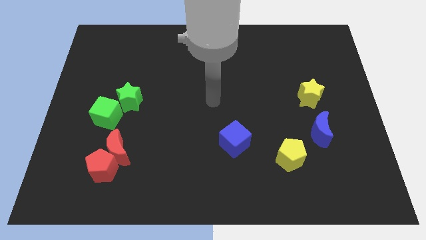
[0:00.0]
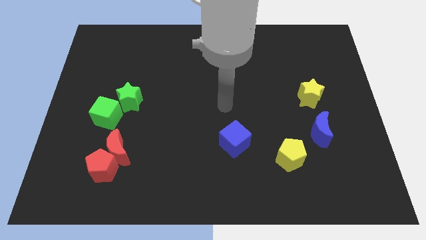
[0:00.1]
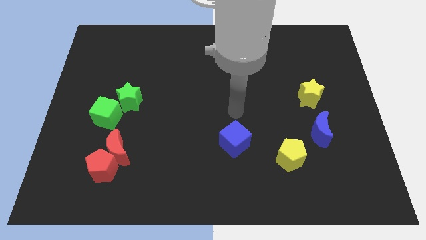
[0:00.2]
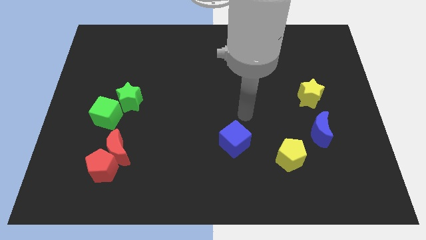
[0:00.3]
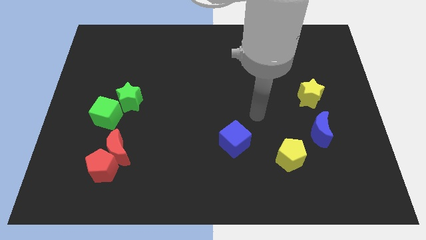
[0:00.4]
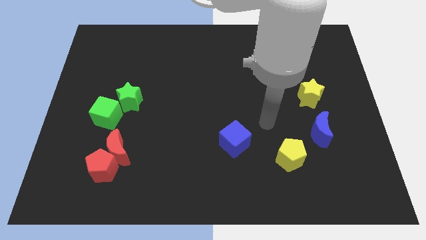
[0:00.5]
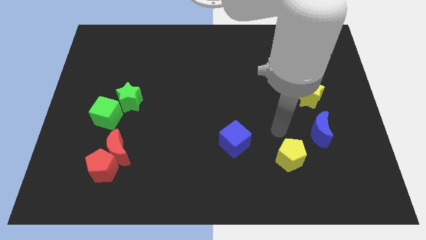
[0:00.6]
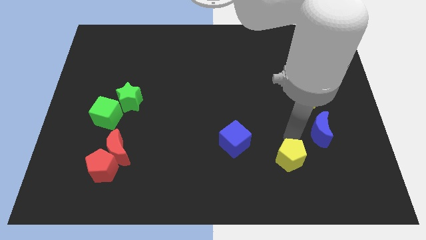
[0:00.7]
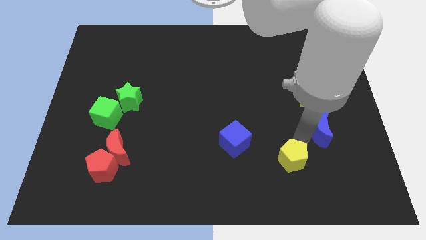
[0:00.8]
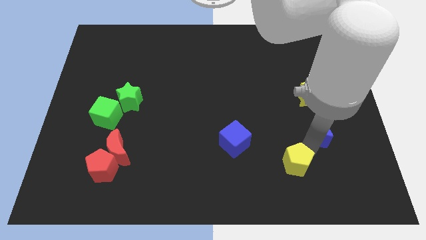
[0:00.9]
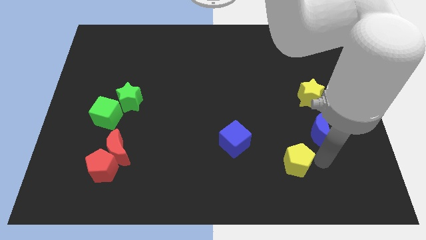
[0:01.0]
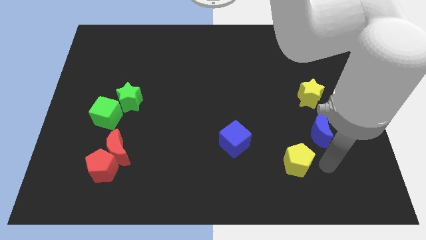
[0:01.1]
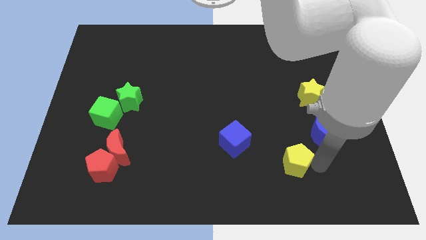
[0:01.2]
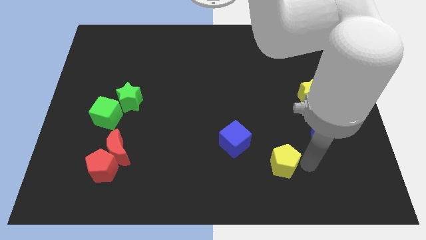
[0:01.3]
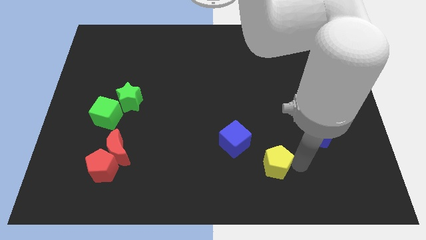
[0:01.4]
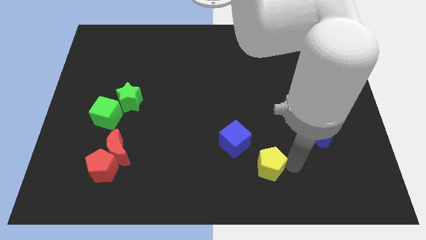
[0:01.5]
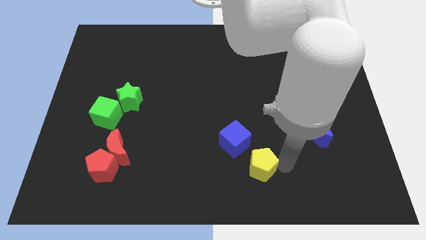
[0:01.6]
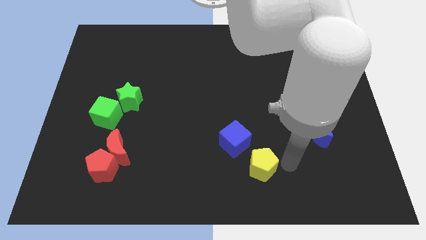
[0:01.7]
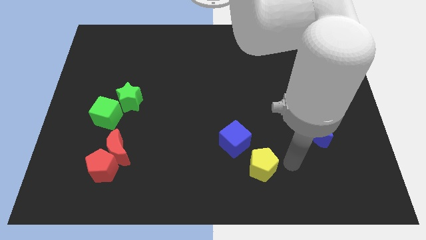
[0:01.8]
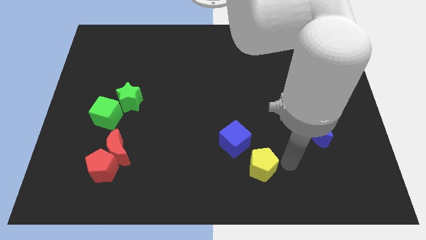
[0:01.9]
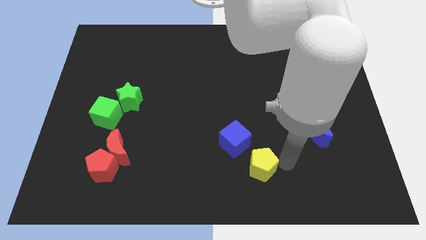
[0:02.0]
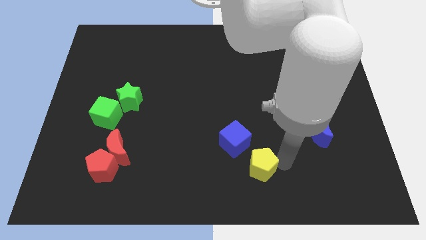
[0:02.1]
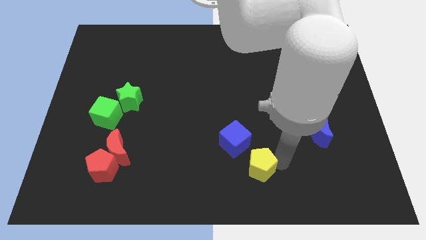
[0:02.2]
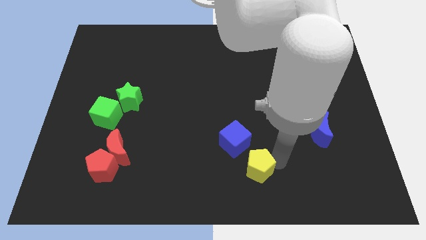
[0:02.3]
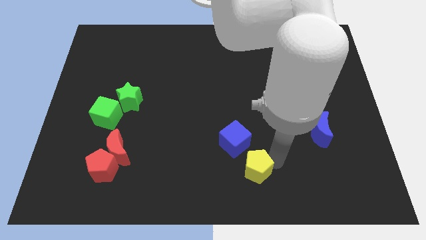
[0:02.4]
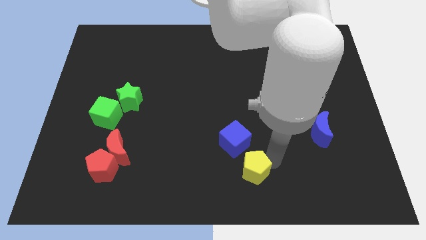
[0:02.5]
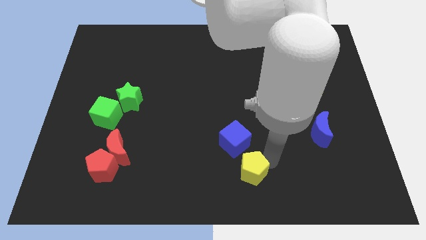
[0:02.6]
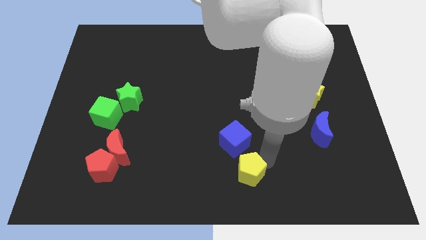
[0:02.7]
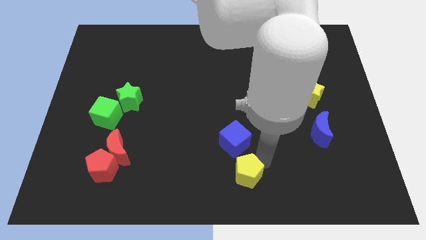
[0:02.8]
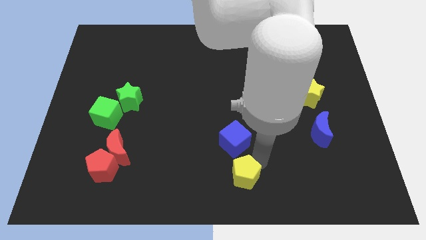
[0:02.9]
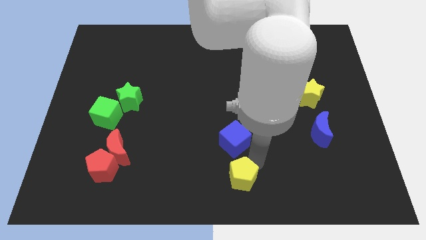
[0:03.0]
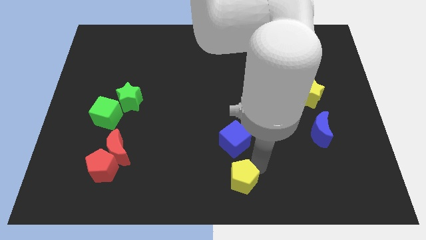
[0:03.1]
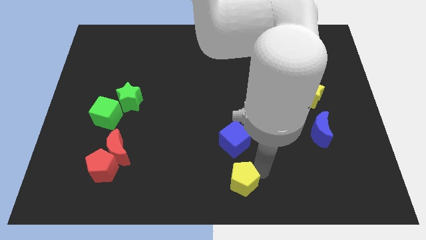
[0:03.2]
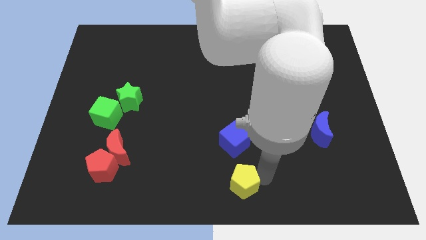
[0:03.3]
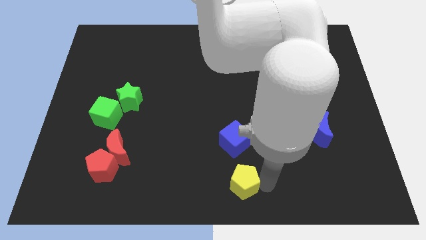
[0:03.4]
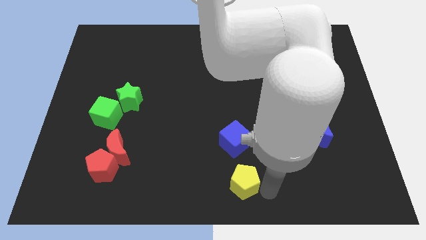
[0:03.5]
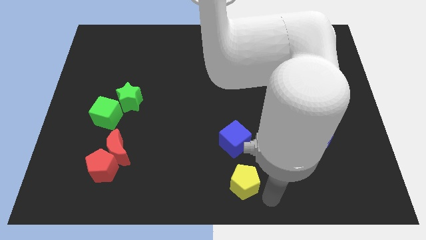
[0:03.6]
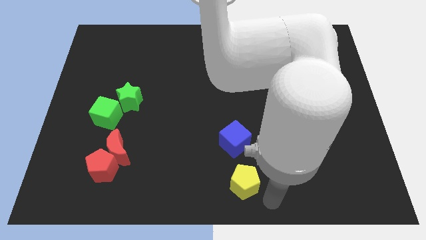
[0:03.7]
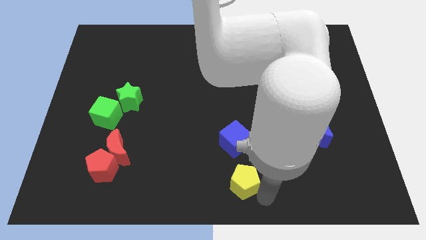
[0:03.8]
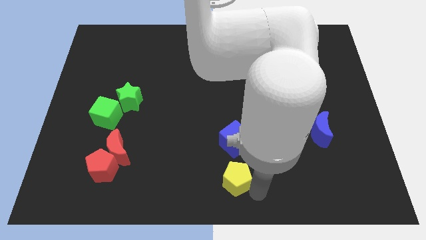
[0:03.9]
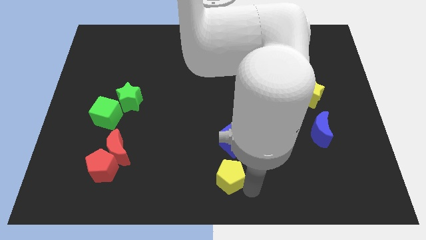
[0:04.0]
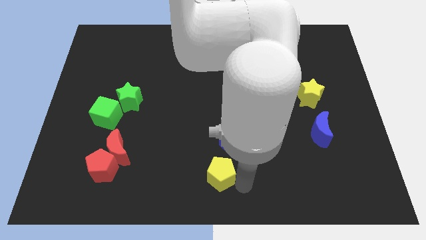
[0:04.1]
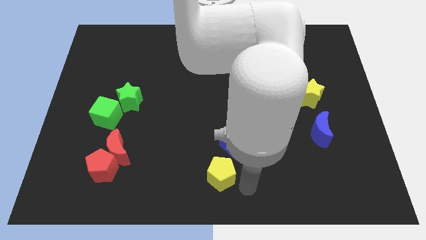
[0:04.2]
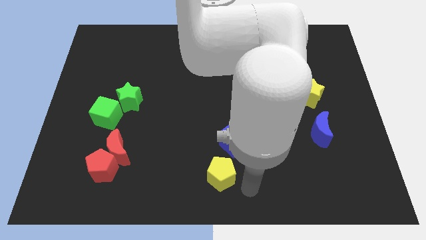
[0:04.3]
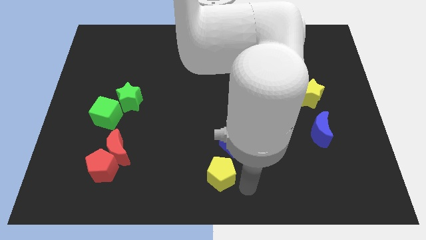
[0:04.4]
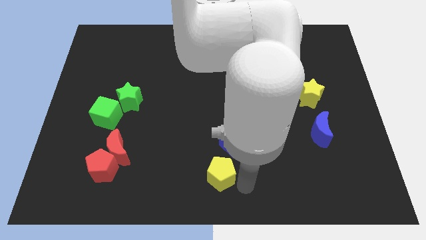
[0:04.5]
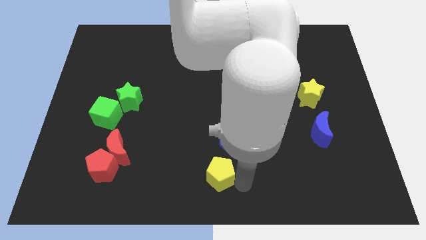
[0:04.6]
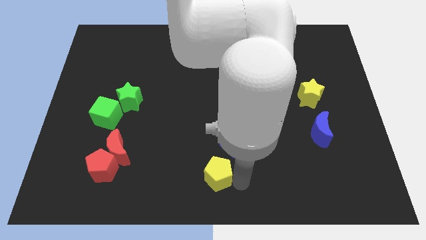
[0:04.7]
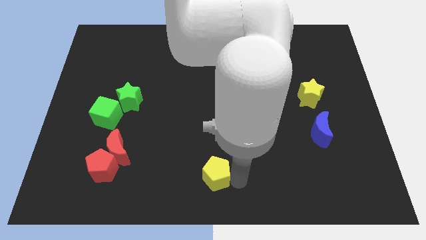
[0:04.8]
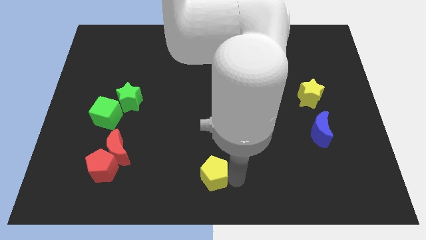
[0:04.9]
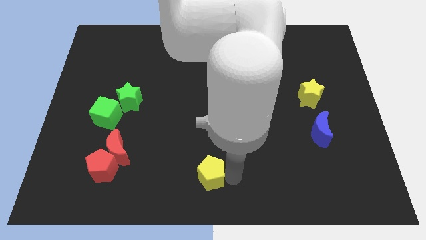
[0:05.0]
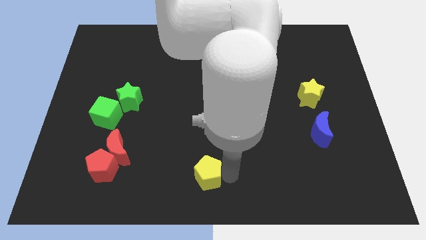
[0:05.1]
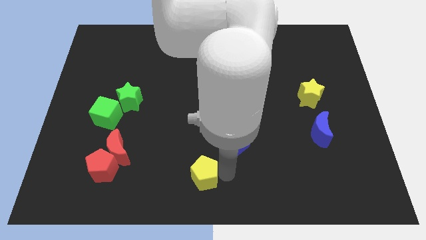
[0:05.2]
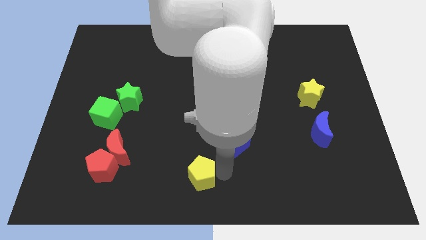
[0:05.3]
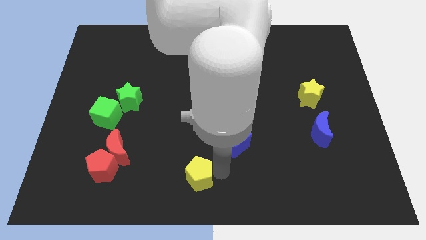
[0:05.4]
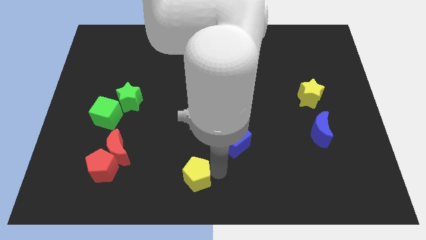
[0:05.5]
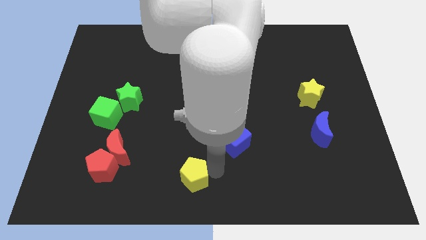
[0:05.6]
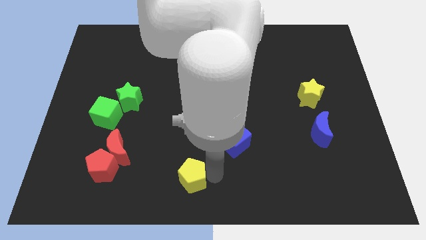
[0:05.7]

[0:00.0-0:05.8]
slide the yellow pentagon left

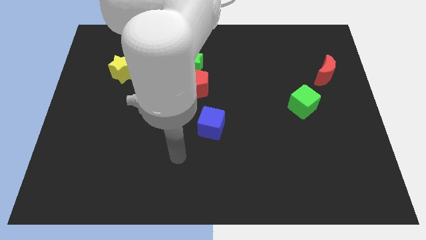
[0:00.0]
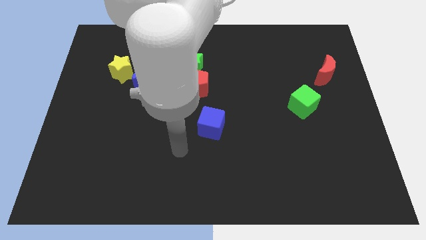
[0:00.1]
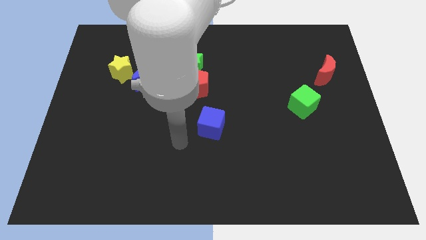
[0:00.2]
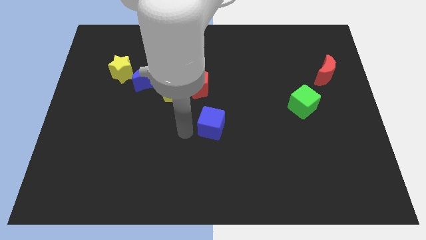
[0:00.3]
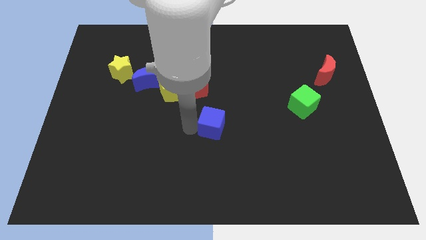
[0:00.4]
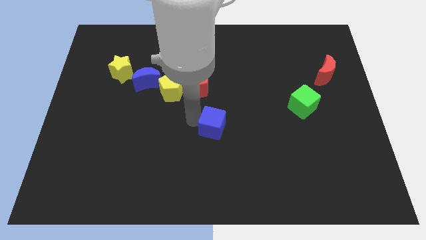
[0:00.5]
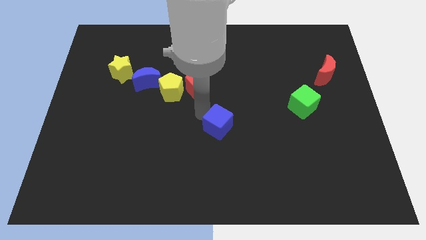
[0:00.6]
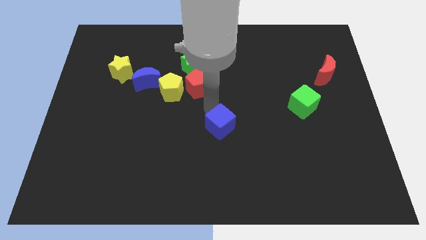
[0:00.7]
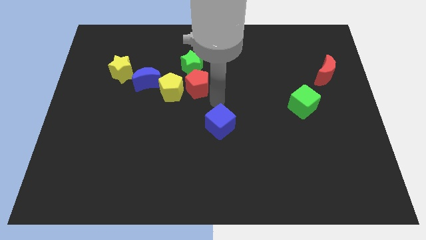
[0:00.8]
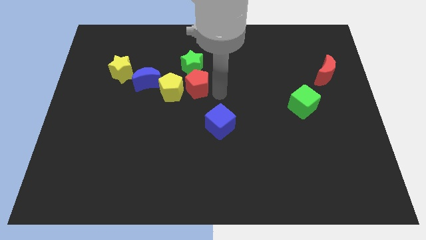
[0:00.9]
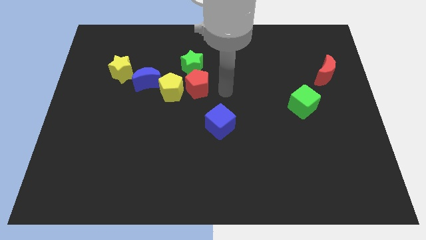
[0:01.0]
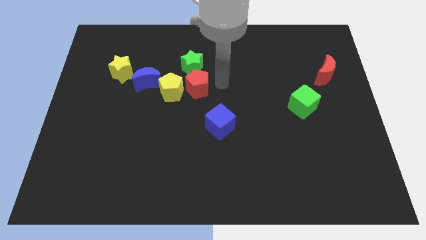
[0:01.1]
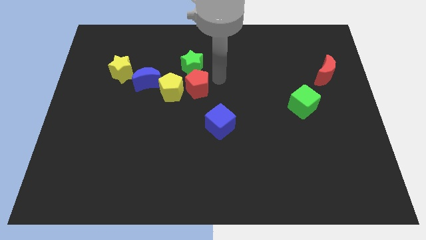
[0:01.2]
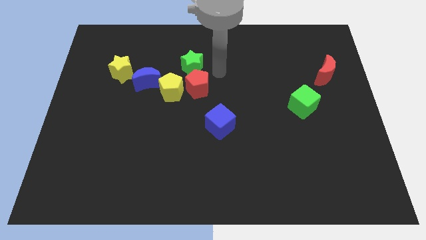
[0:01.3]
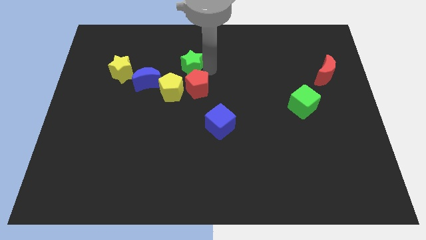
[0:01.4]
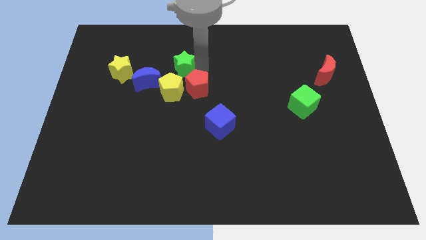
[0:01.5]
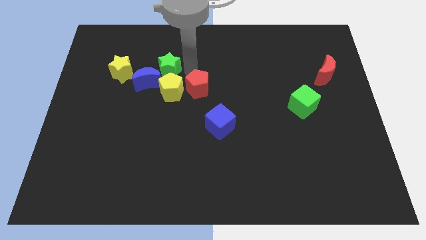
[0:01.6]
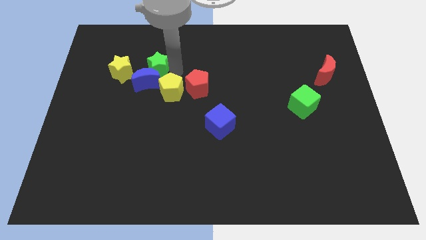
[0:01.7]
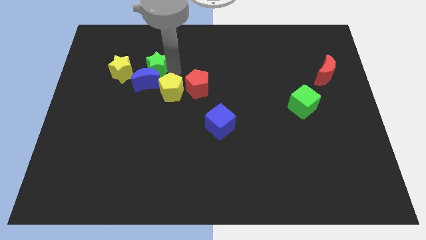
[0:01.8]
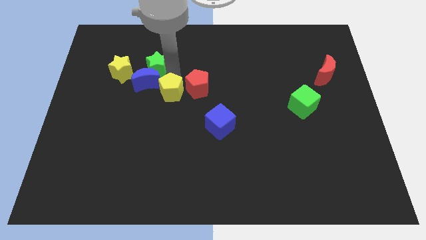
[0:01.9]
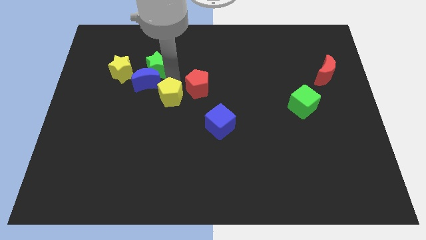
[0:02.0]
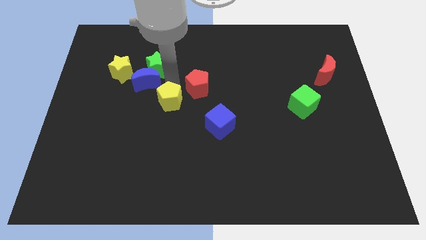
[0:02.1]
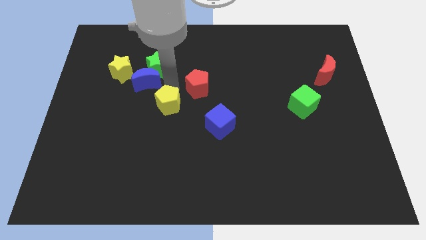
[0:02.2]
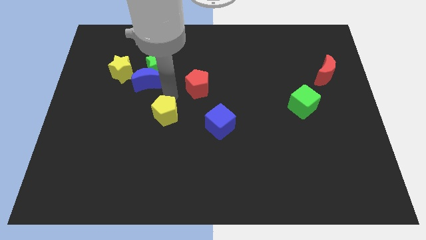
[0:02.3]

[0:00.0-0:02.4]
move the yellow pentagon down a bit
